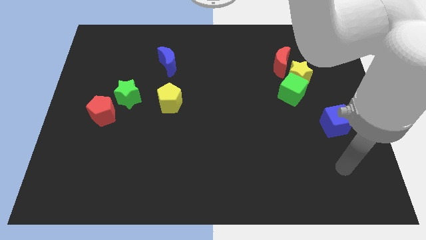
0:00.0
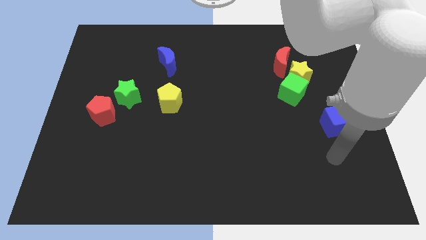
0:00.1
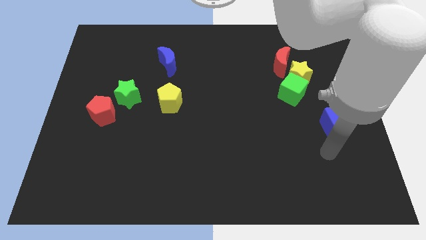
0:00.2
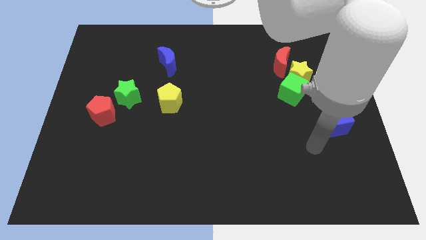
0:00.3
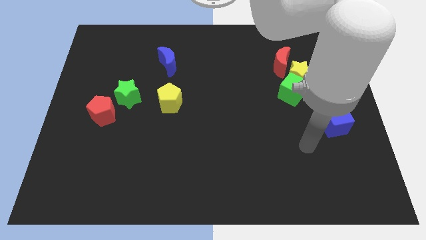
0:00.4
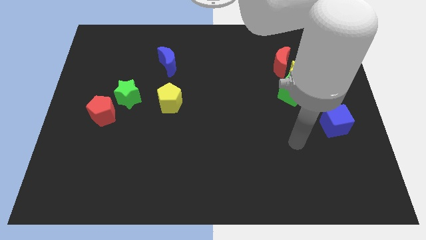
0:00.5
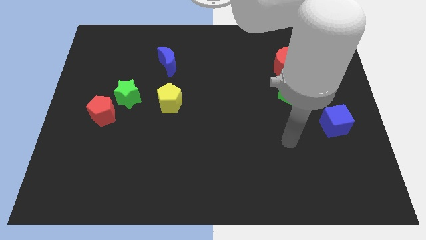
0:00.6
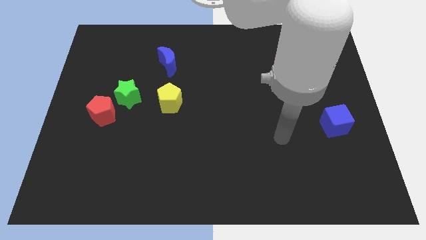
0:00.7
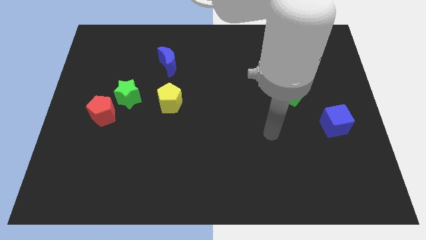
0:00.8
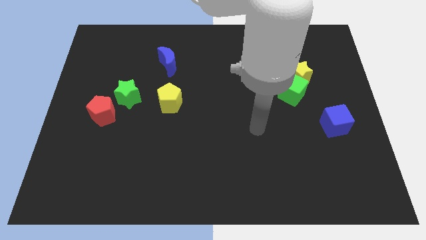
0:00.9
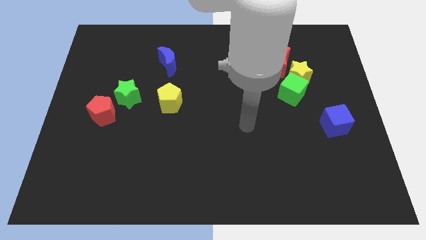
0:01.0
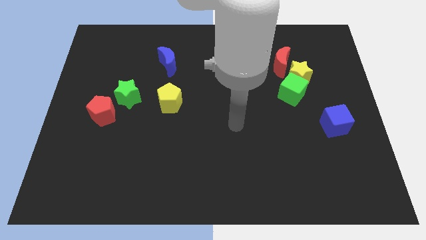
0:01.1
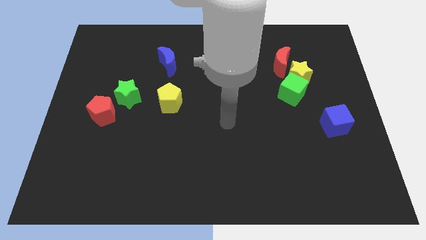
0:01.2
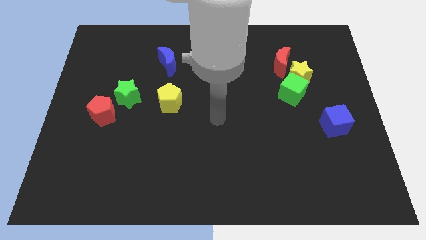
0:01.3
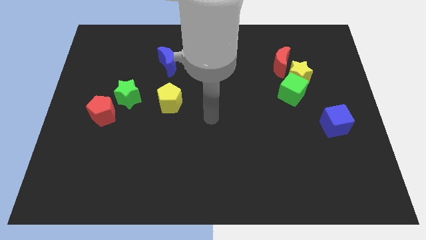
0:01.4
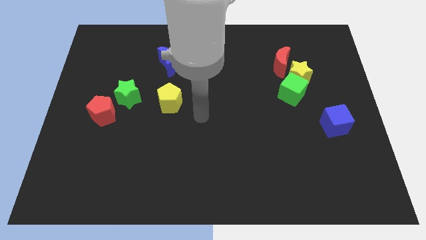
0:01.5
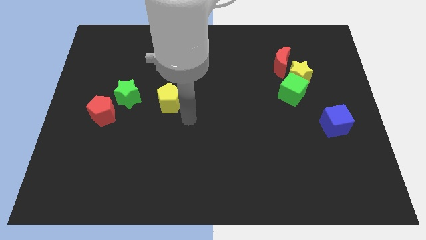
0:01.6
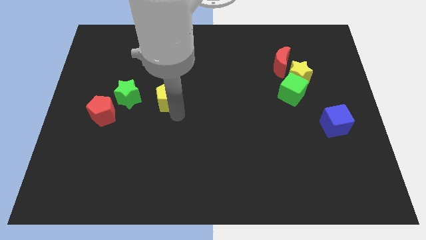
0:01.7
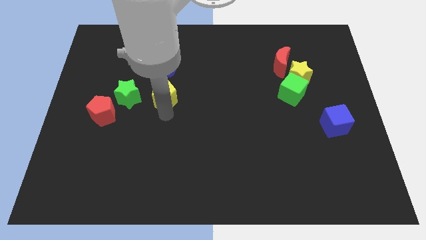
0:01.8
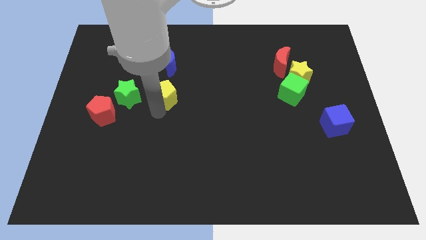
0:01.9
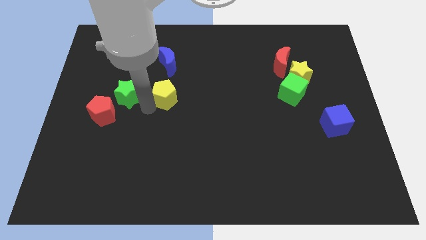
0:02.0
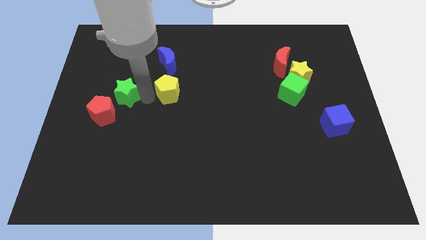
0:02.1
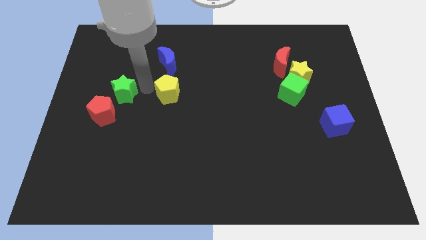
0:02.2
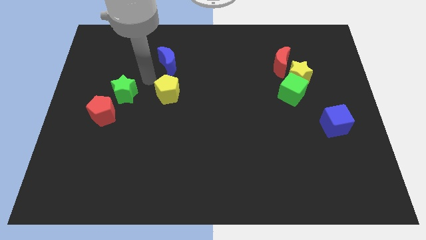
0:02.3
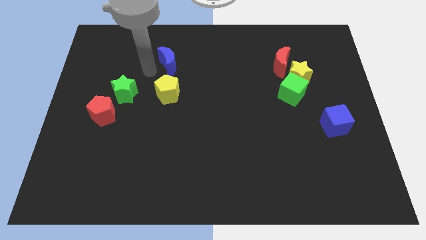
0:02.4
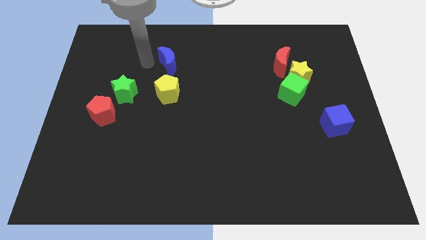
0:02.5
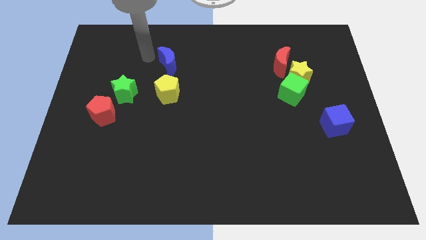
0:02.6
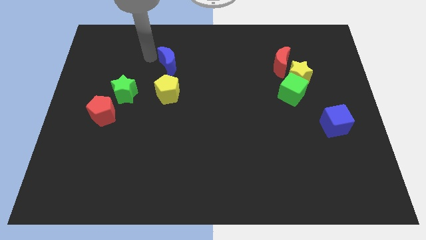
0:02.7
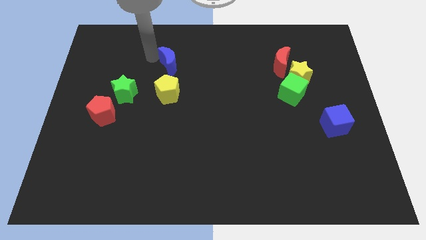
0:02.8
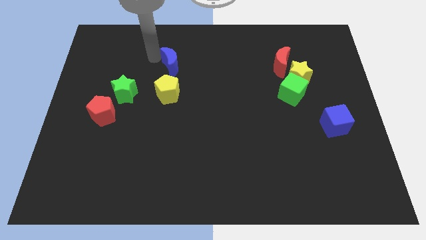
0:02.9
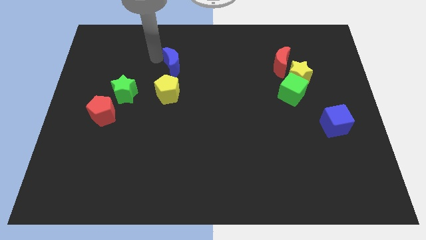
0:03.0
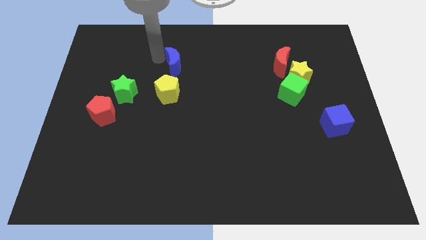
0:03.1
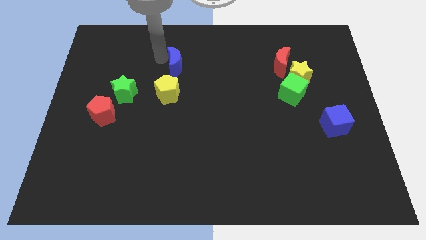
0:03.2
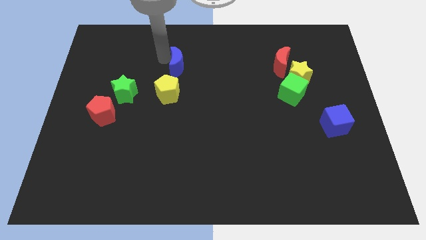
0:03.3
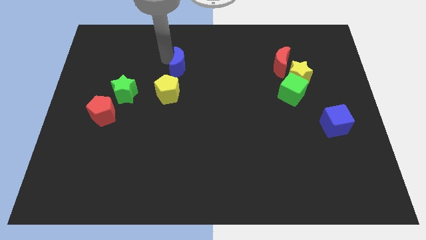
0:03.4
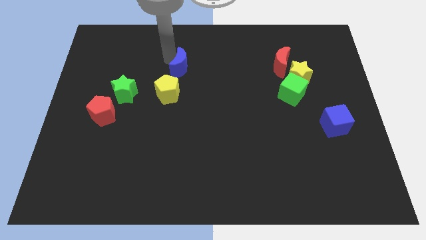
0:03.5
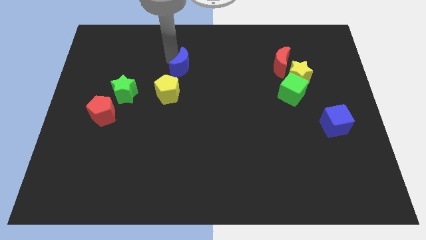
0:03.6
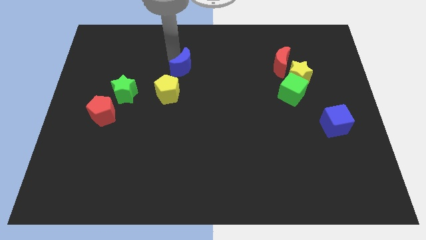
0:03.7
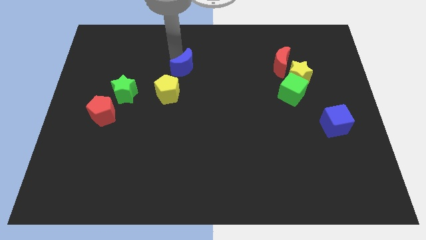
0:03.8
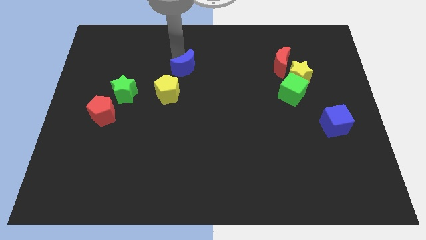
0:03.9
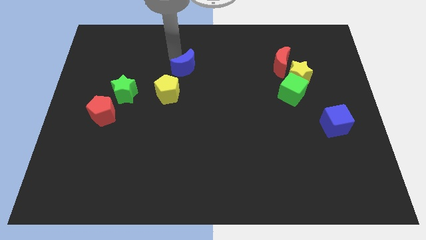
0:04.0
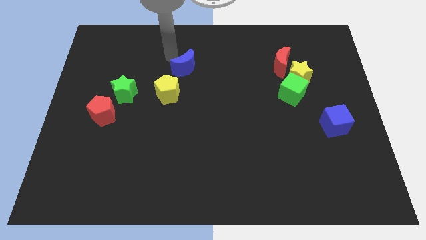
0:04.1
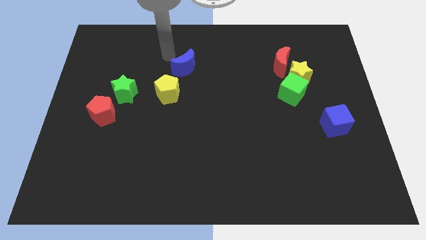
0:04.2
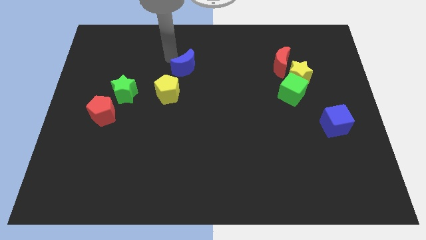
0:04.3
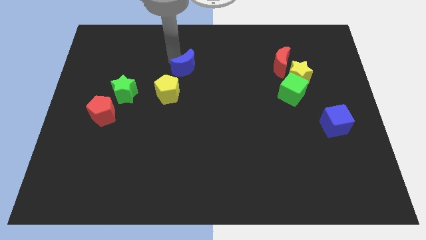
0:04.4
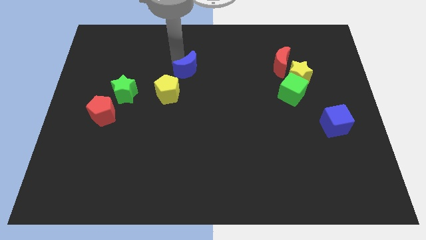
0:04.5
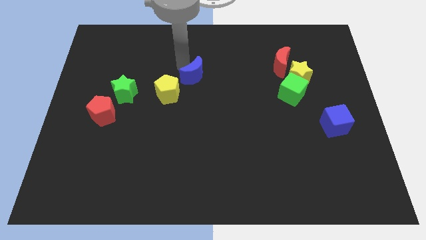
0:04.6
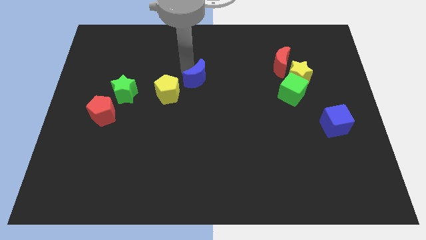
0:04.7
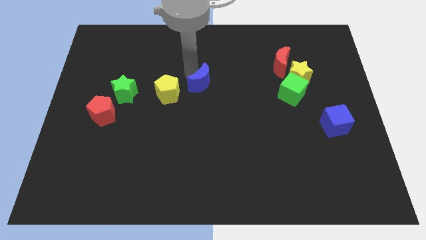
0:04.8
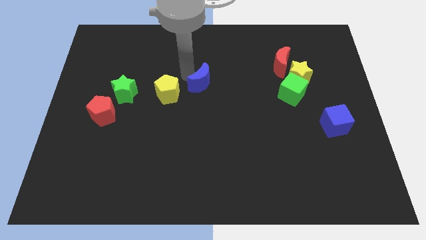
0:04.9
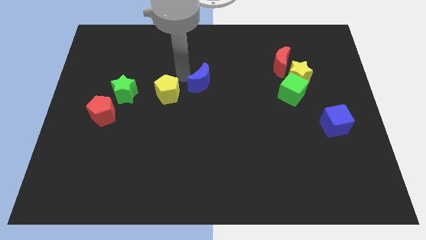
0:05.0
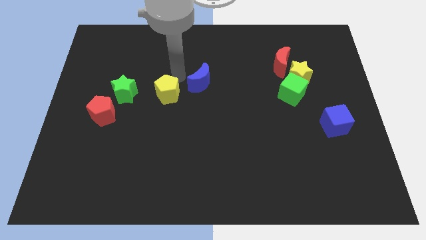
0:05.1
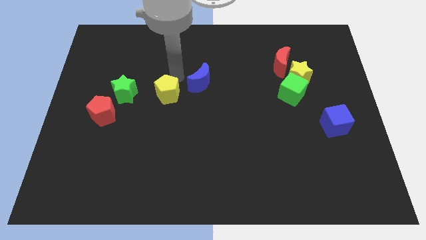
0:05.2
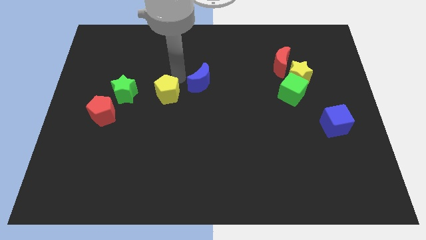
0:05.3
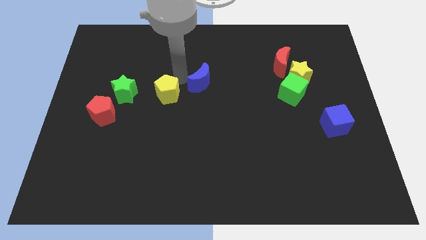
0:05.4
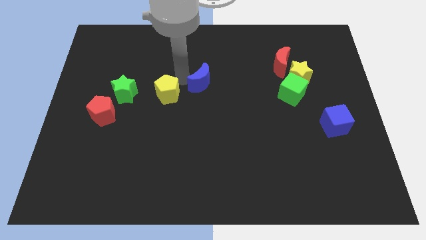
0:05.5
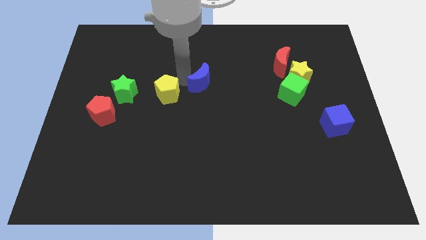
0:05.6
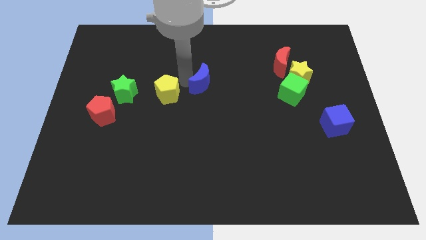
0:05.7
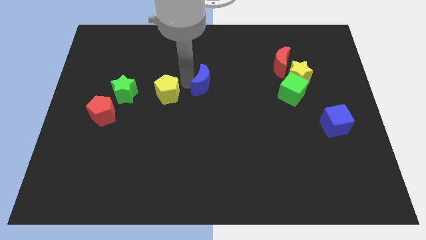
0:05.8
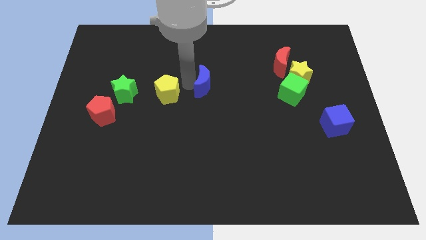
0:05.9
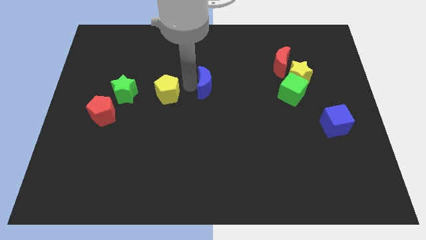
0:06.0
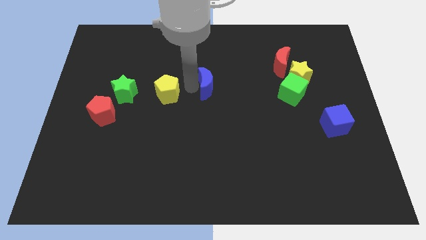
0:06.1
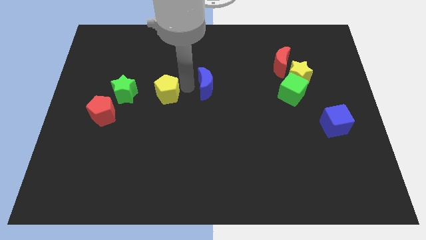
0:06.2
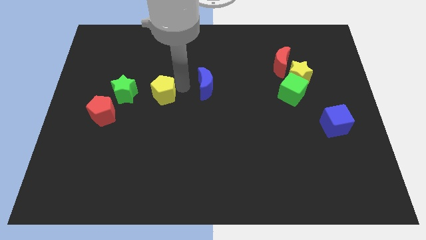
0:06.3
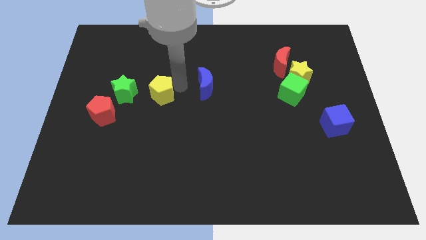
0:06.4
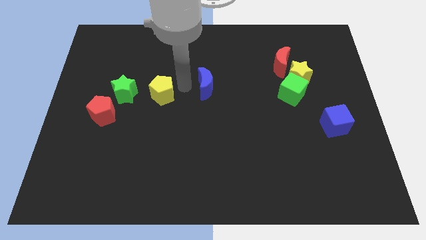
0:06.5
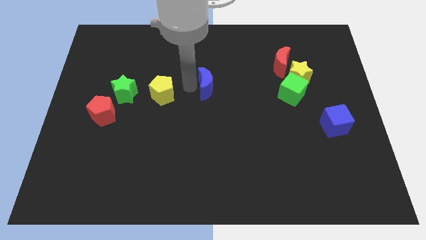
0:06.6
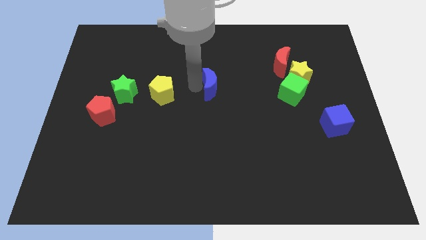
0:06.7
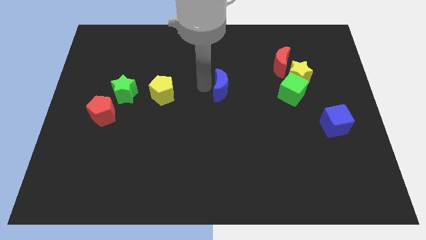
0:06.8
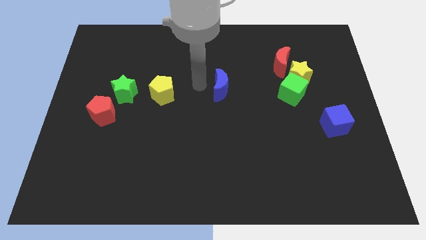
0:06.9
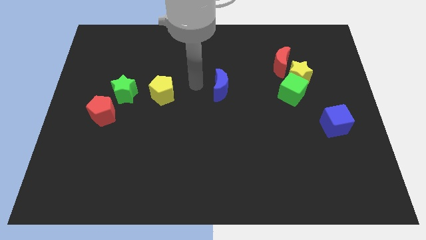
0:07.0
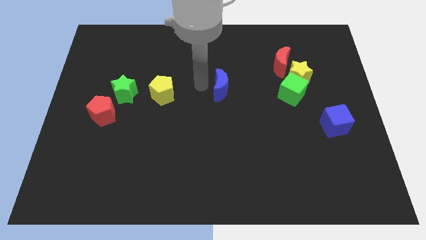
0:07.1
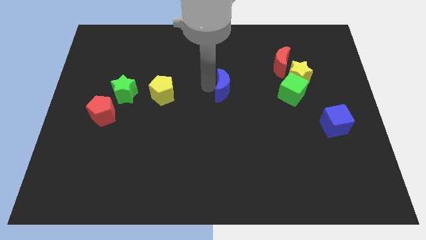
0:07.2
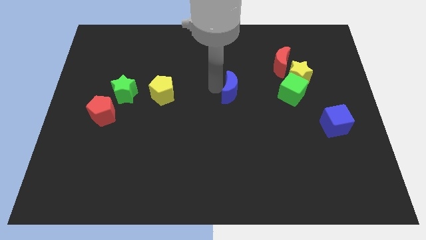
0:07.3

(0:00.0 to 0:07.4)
put the blue moon to the left side of the green cube

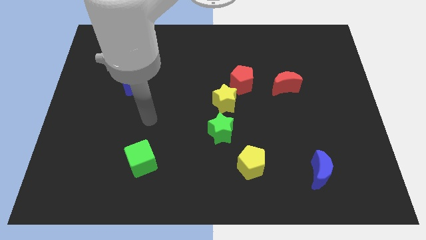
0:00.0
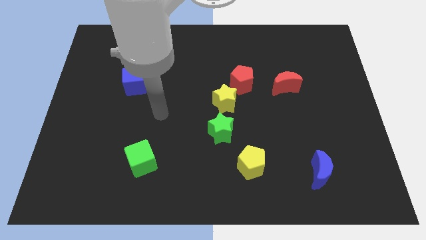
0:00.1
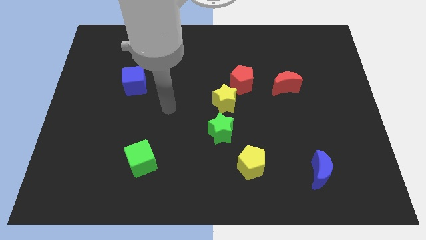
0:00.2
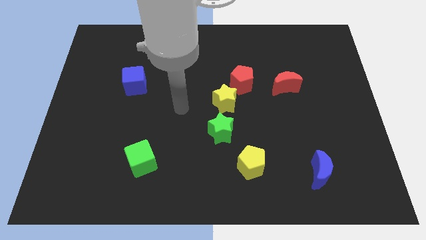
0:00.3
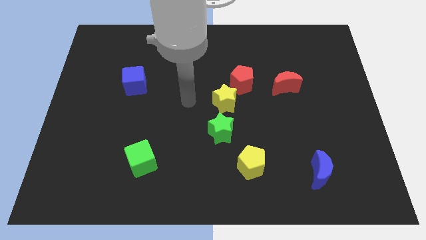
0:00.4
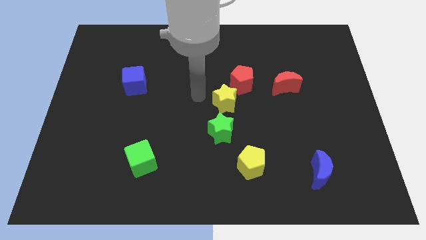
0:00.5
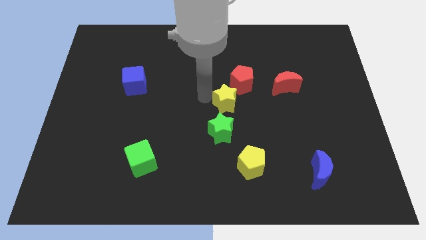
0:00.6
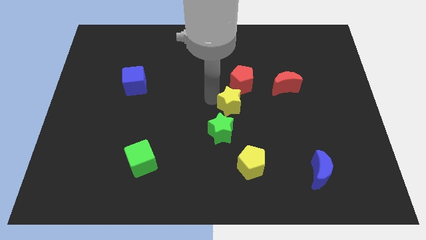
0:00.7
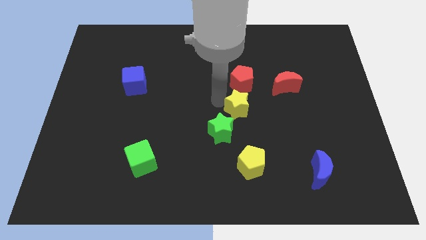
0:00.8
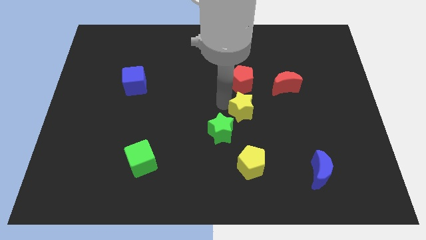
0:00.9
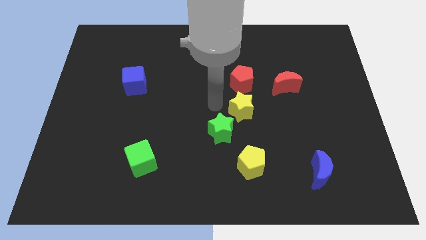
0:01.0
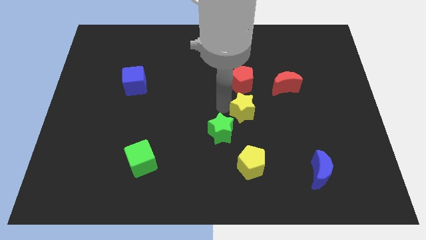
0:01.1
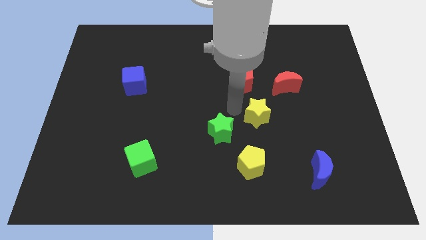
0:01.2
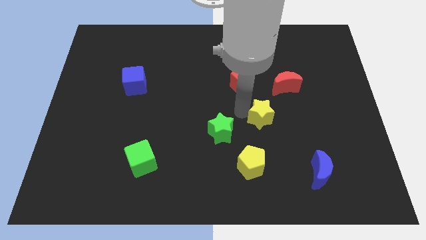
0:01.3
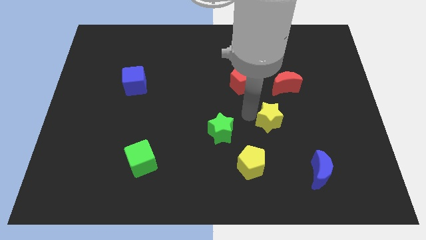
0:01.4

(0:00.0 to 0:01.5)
slide the yellow star to the bottom of the red moon
